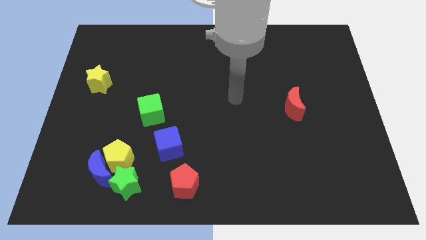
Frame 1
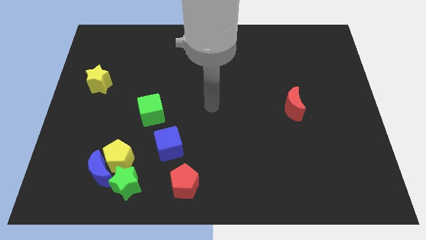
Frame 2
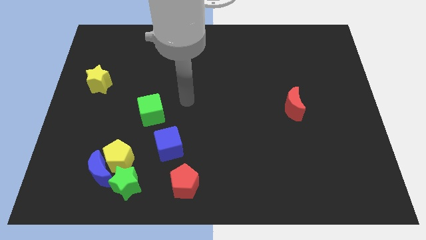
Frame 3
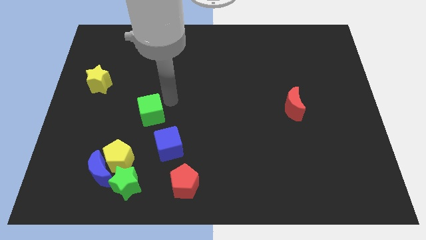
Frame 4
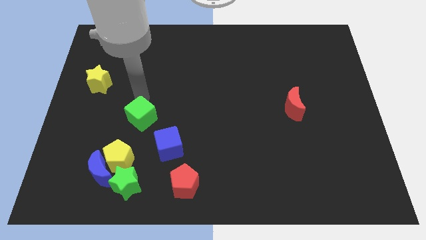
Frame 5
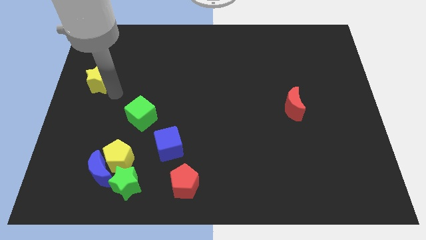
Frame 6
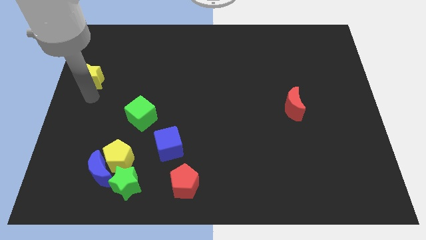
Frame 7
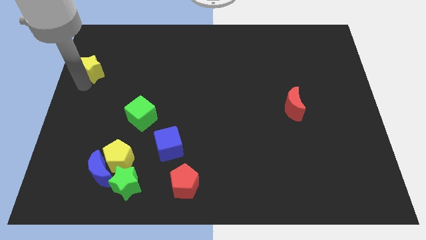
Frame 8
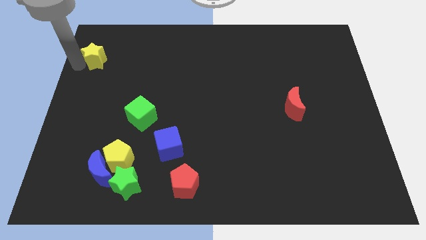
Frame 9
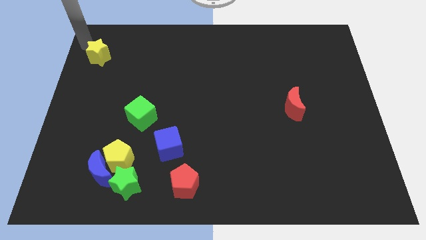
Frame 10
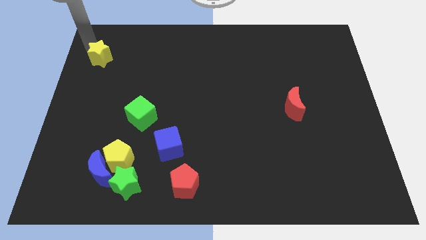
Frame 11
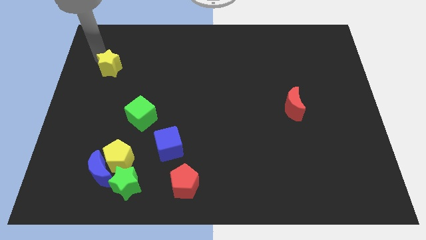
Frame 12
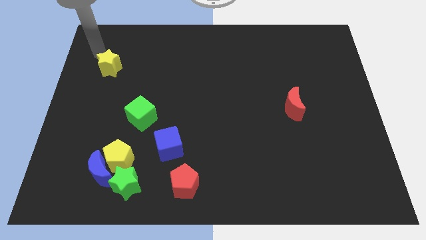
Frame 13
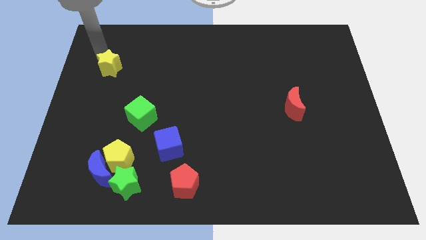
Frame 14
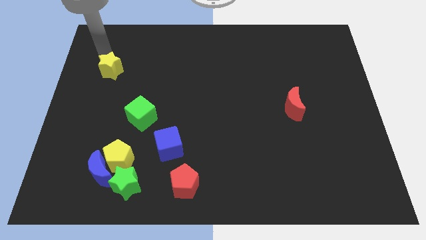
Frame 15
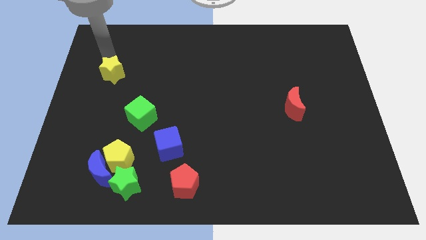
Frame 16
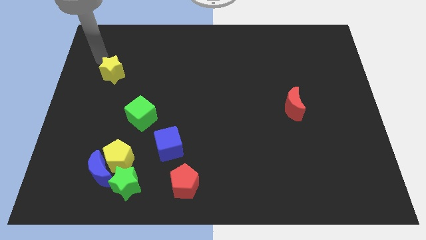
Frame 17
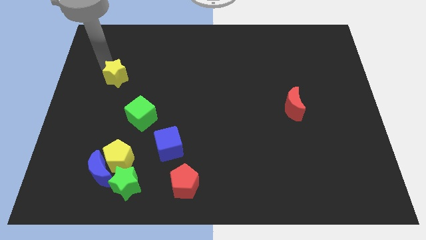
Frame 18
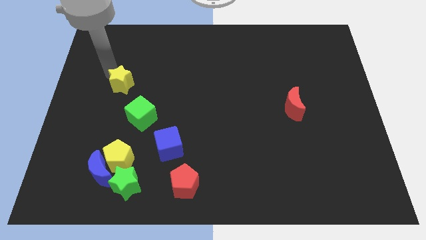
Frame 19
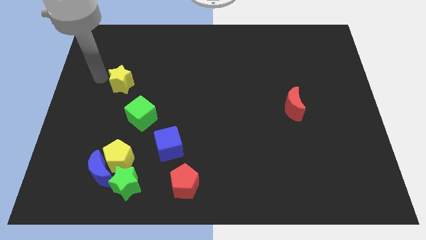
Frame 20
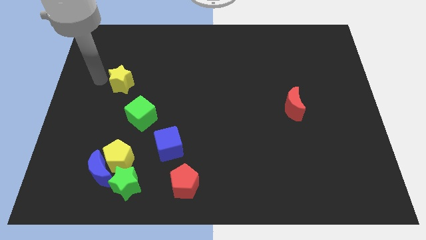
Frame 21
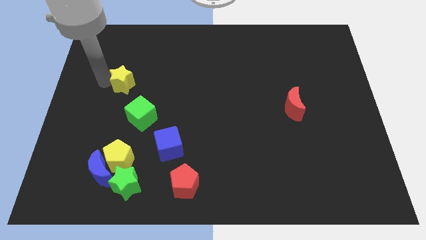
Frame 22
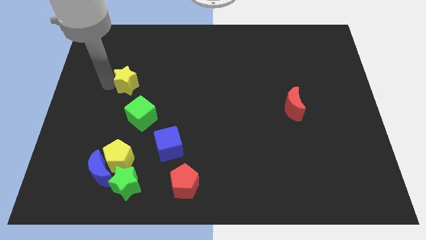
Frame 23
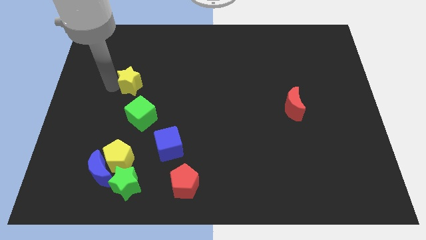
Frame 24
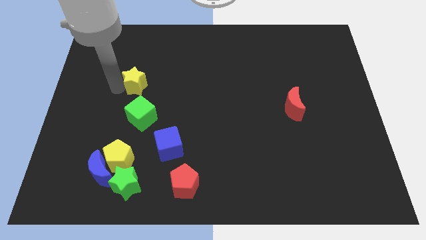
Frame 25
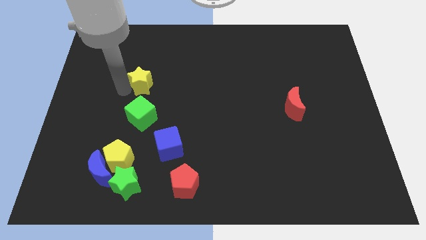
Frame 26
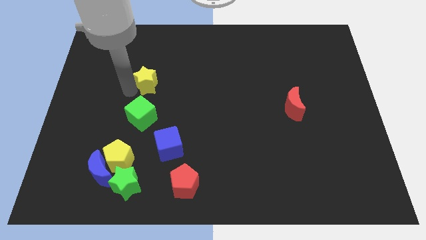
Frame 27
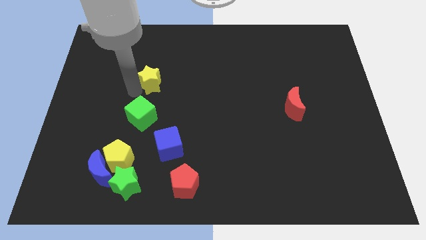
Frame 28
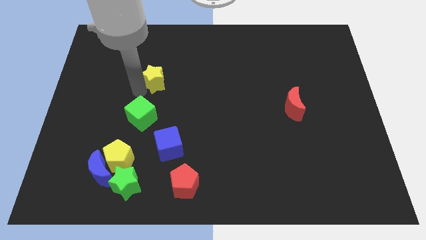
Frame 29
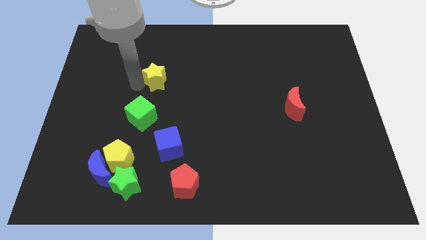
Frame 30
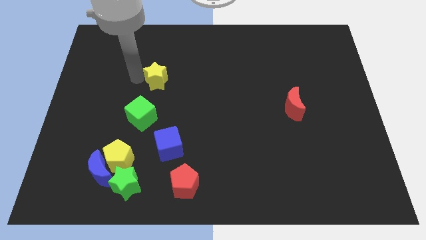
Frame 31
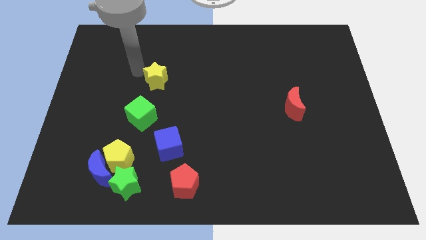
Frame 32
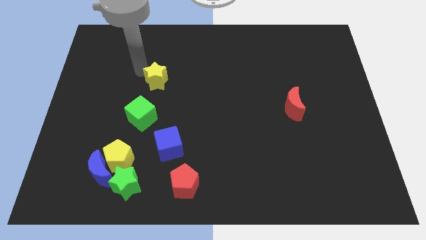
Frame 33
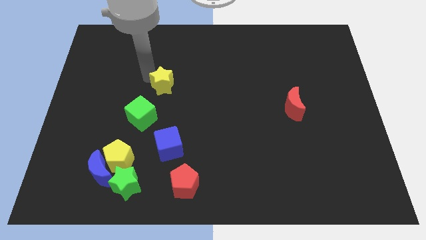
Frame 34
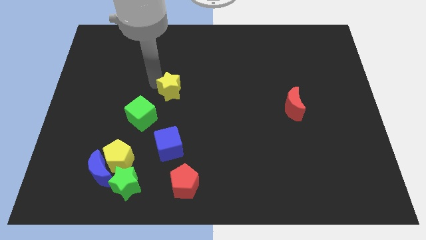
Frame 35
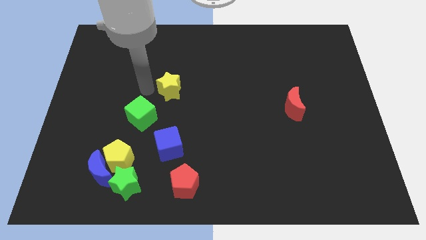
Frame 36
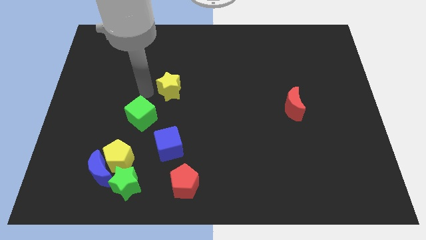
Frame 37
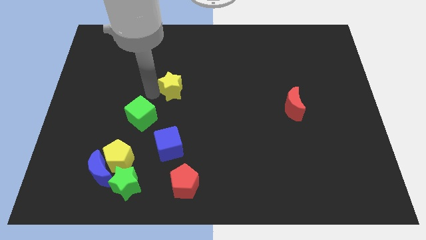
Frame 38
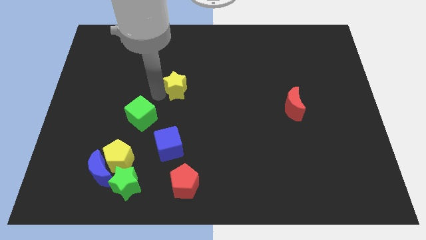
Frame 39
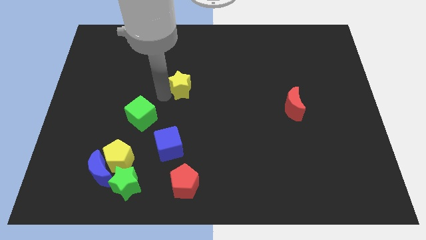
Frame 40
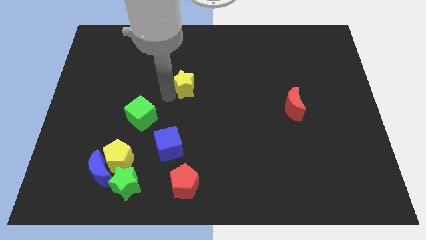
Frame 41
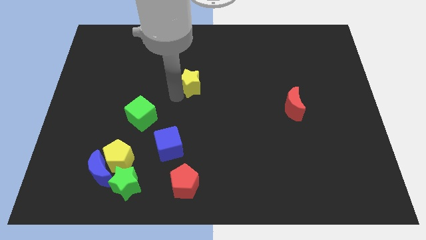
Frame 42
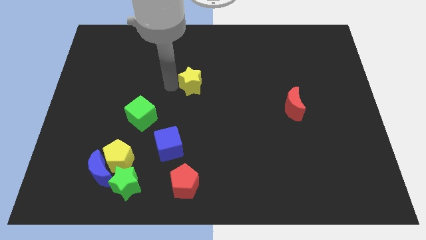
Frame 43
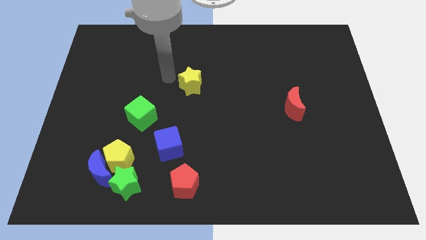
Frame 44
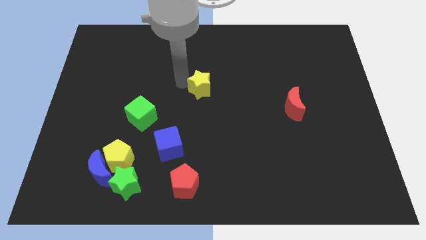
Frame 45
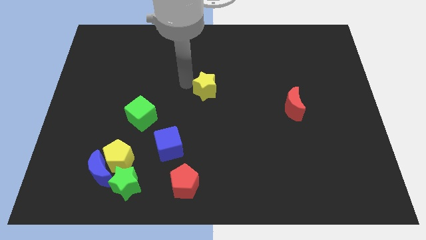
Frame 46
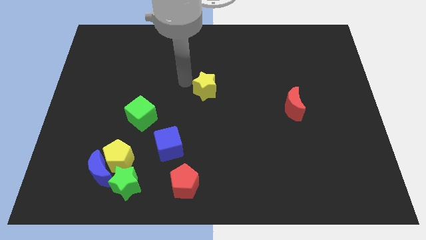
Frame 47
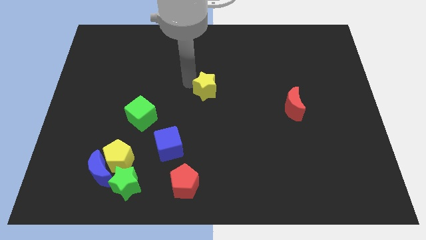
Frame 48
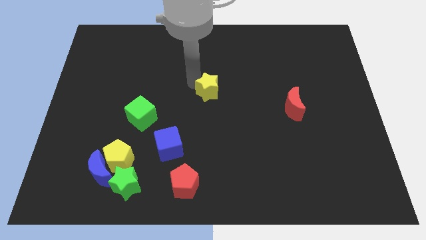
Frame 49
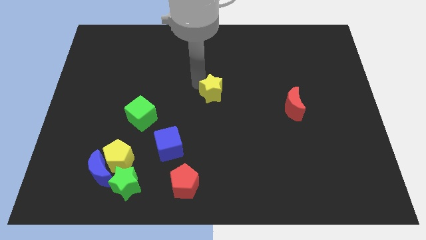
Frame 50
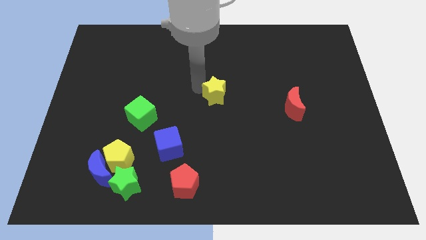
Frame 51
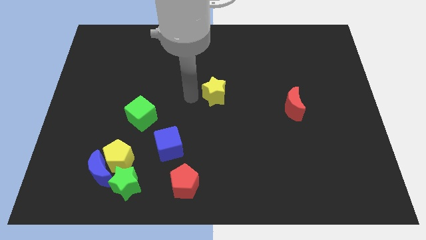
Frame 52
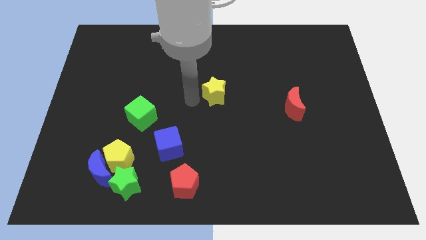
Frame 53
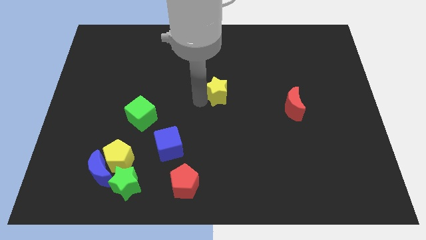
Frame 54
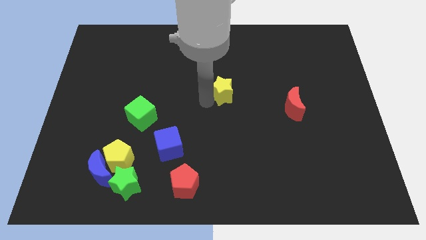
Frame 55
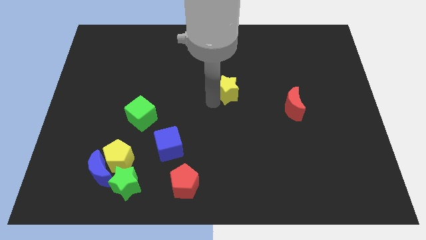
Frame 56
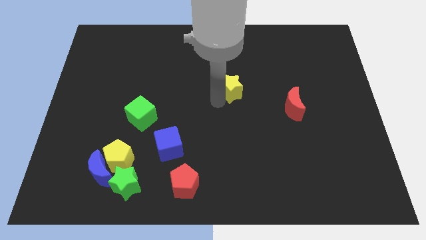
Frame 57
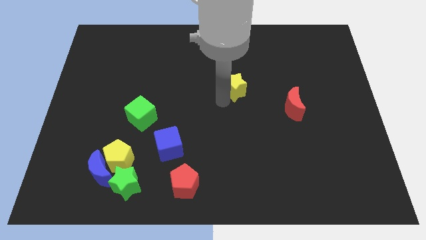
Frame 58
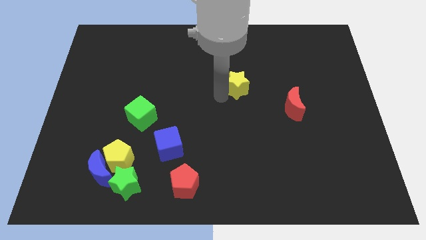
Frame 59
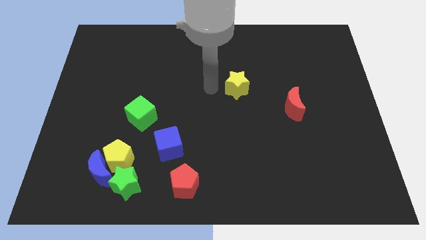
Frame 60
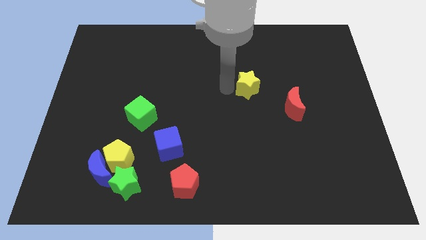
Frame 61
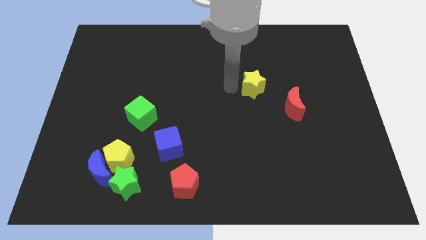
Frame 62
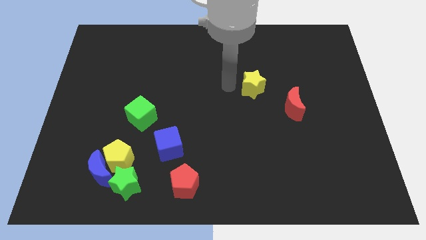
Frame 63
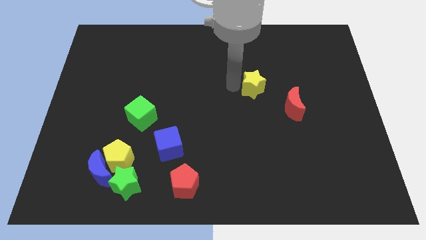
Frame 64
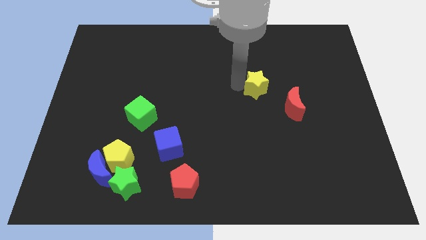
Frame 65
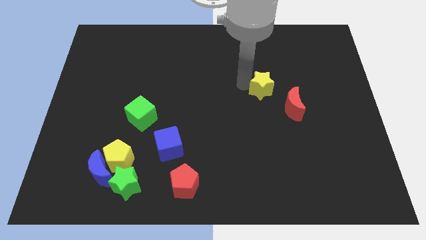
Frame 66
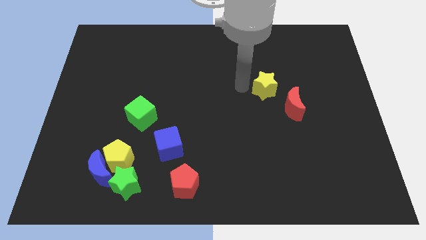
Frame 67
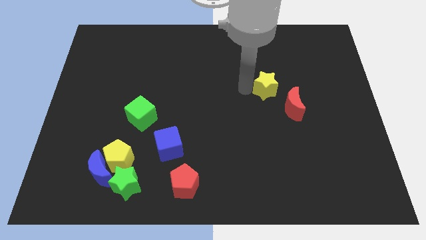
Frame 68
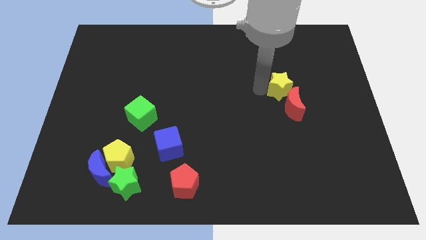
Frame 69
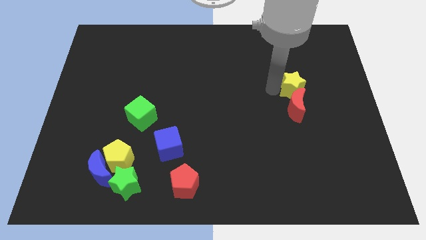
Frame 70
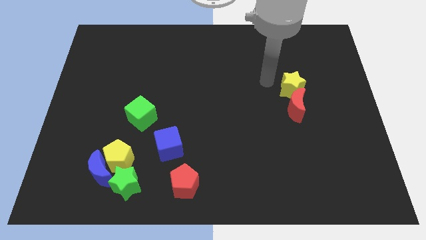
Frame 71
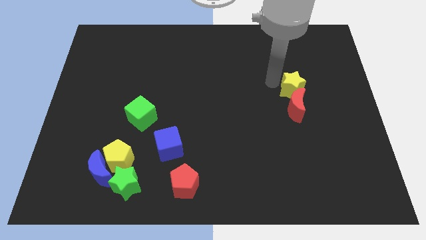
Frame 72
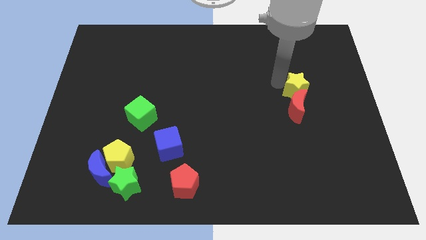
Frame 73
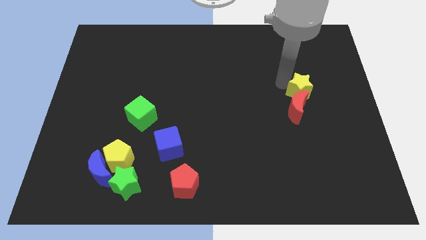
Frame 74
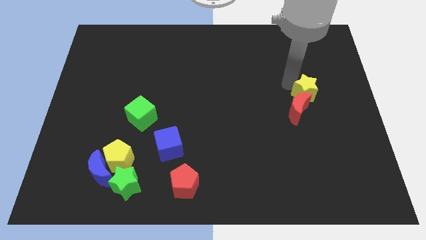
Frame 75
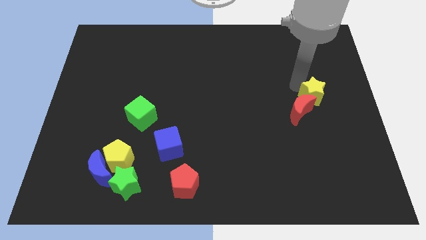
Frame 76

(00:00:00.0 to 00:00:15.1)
move the yellow star just right of the red moon
